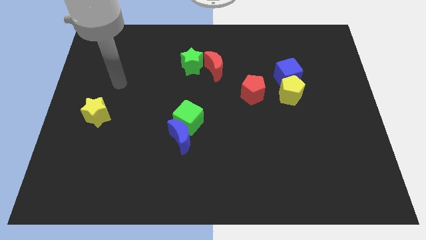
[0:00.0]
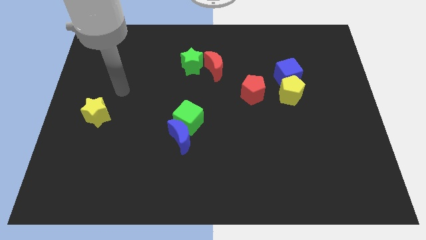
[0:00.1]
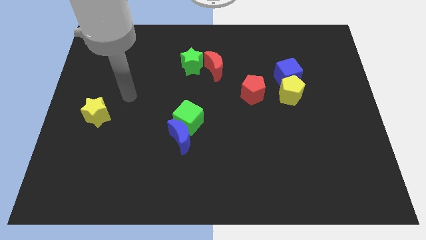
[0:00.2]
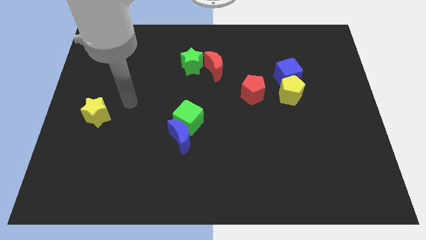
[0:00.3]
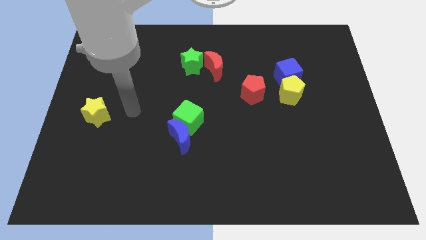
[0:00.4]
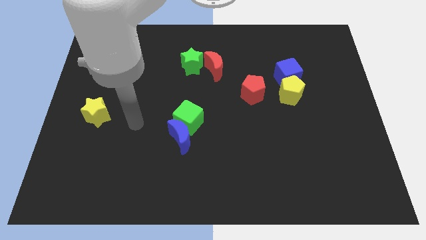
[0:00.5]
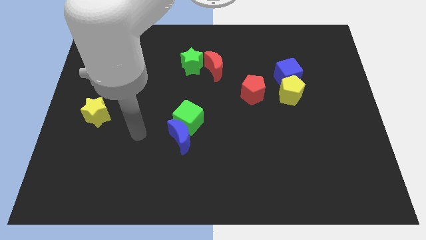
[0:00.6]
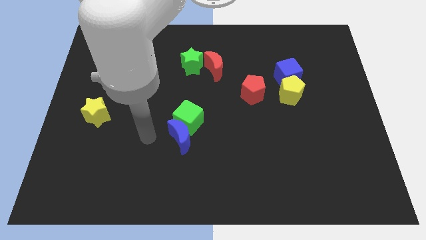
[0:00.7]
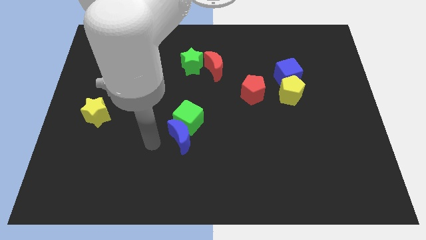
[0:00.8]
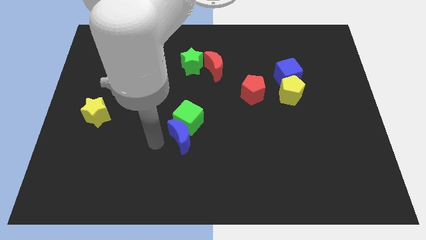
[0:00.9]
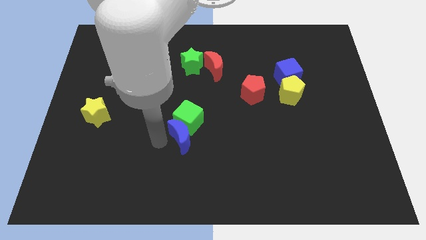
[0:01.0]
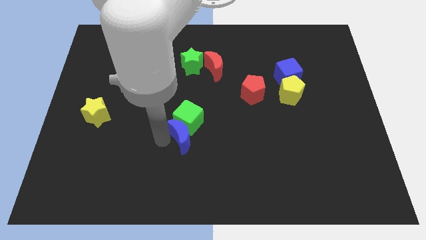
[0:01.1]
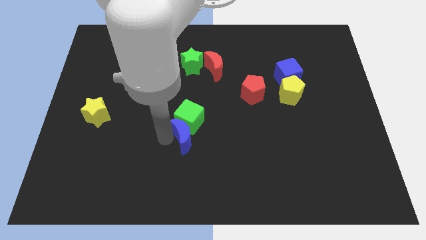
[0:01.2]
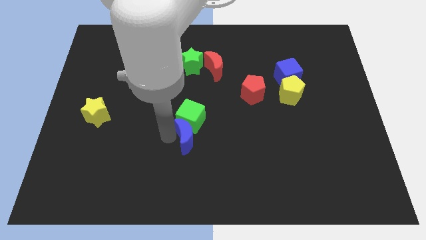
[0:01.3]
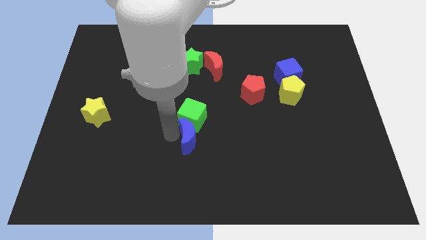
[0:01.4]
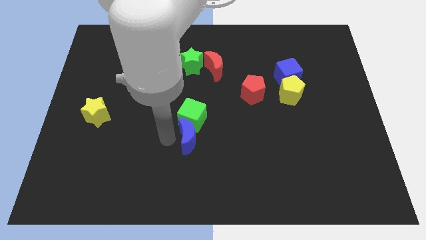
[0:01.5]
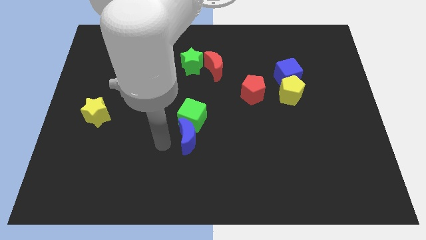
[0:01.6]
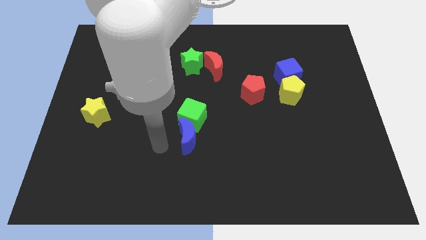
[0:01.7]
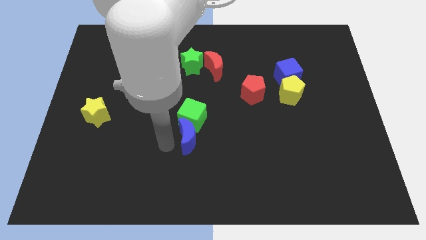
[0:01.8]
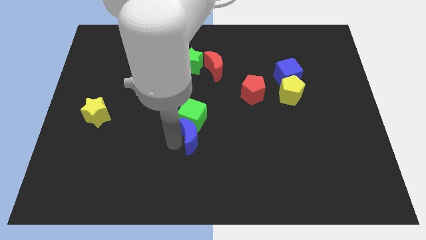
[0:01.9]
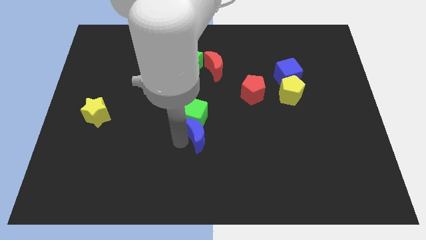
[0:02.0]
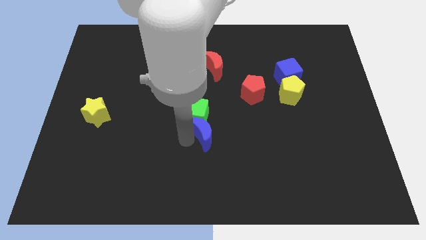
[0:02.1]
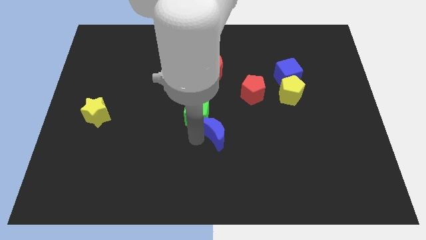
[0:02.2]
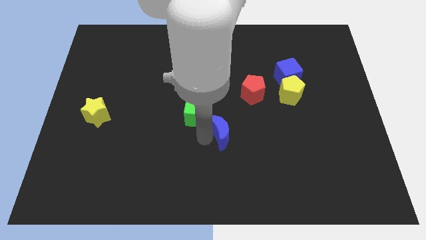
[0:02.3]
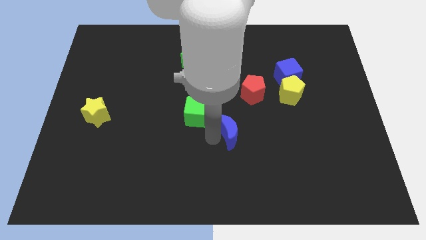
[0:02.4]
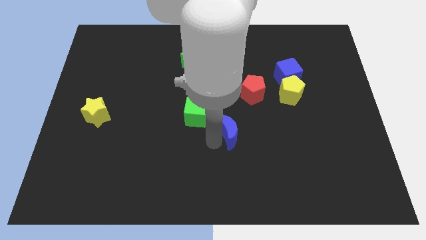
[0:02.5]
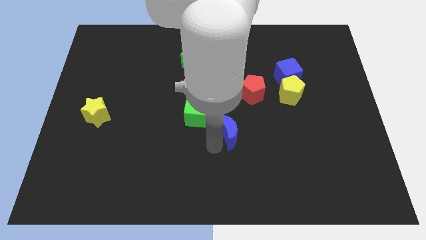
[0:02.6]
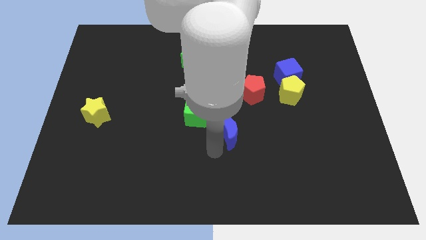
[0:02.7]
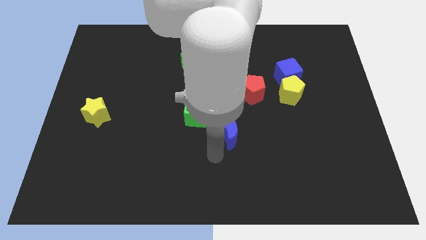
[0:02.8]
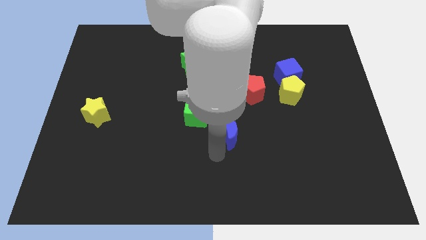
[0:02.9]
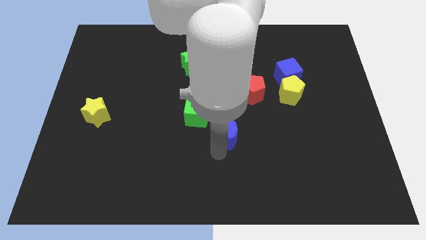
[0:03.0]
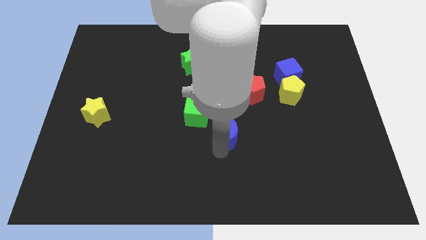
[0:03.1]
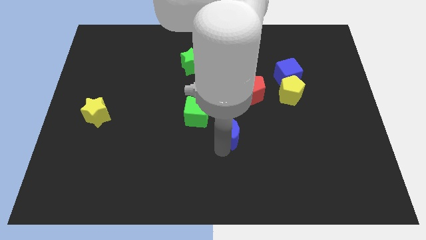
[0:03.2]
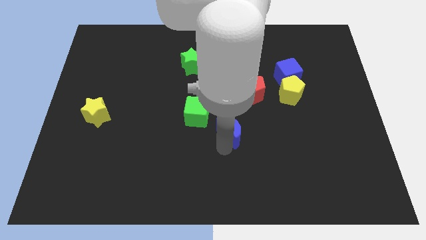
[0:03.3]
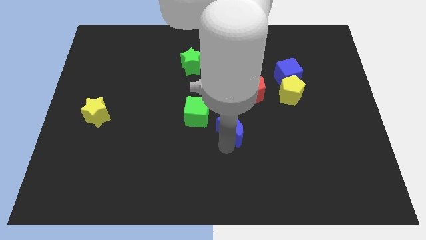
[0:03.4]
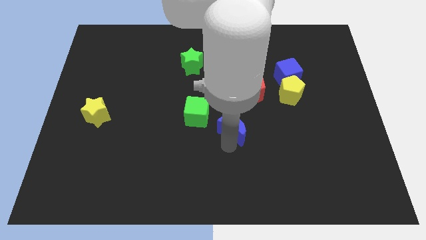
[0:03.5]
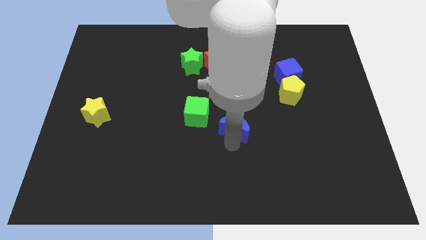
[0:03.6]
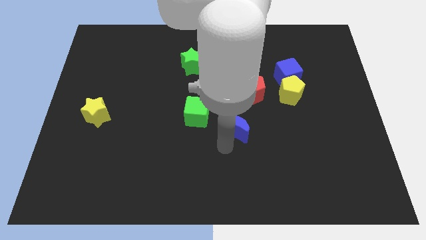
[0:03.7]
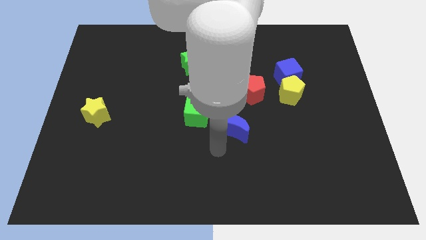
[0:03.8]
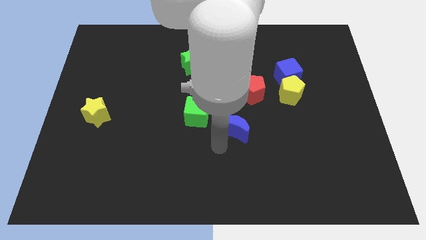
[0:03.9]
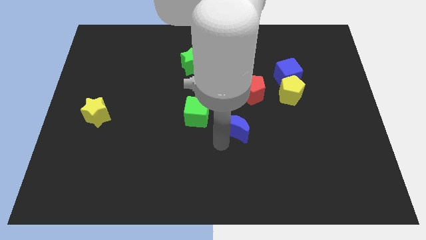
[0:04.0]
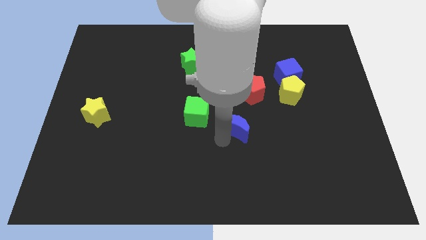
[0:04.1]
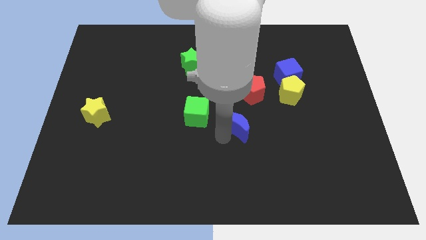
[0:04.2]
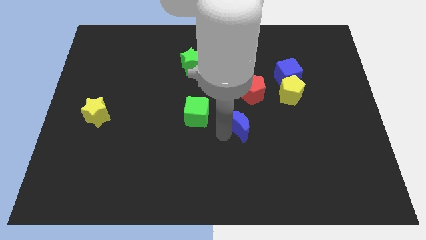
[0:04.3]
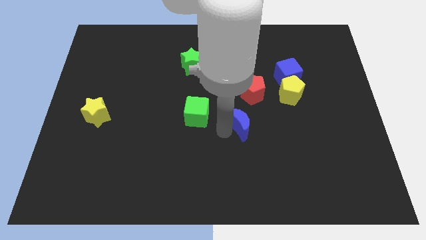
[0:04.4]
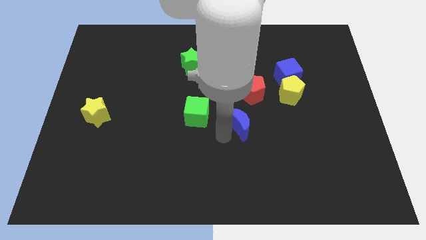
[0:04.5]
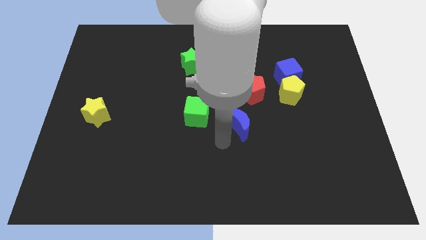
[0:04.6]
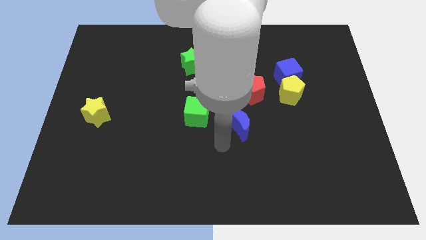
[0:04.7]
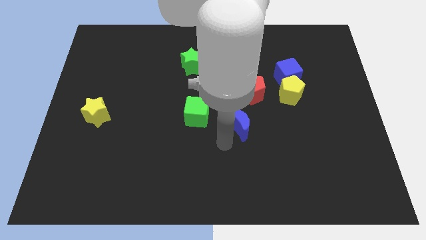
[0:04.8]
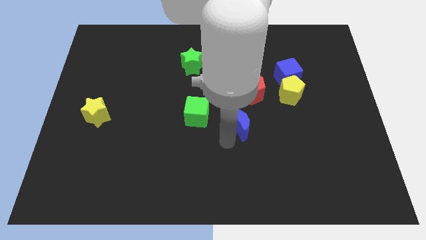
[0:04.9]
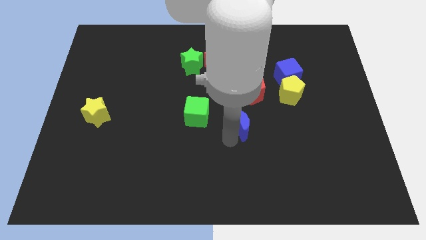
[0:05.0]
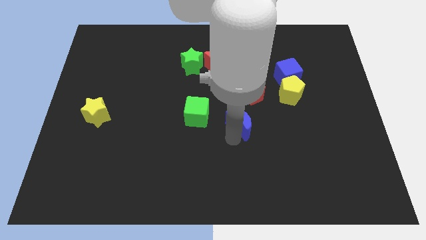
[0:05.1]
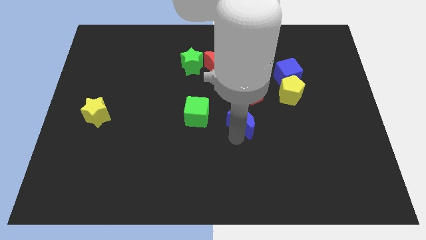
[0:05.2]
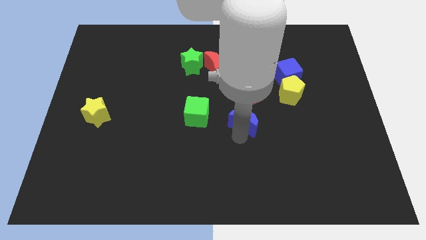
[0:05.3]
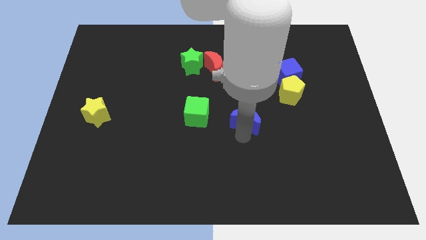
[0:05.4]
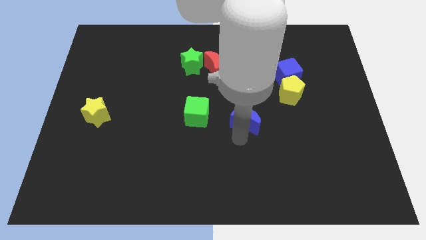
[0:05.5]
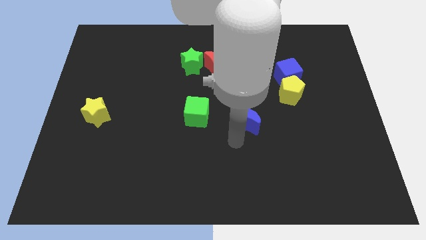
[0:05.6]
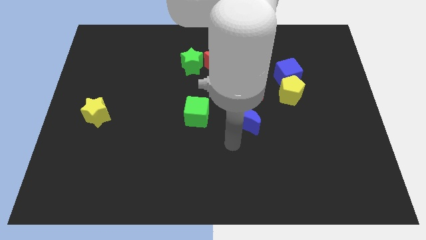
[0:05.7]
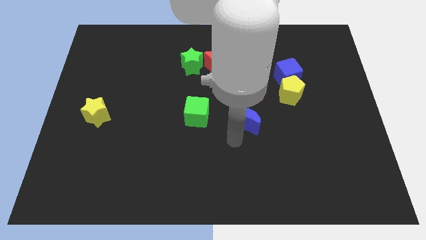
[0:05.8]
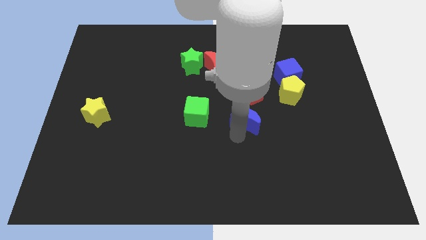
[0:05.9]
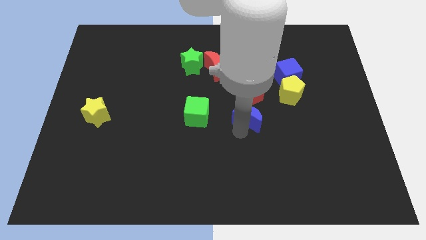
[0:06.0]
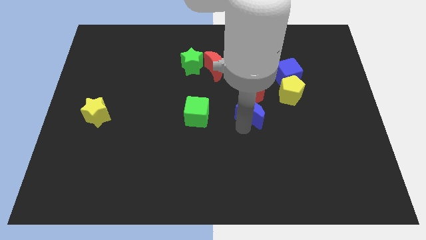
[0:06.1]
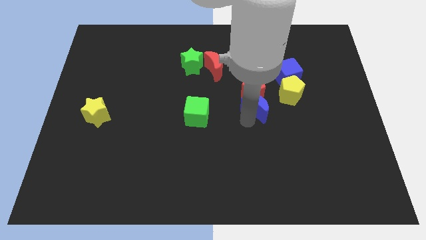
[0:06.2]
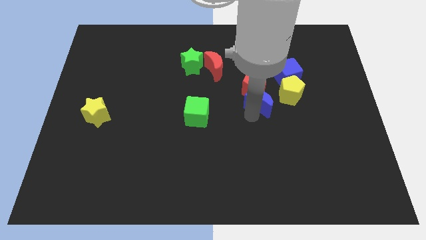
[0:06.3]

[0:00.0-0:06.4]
push the blue moon diagonally down and to the left of the blue cube

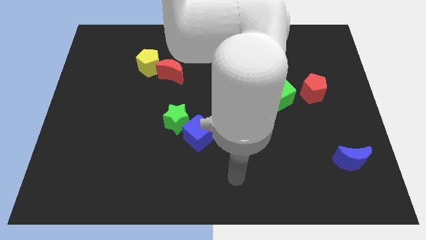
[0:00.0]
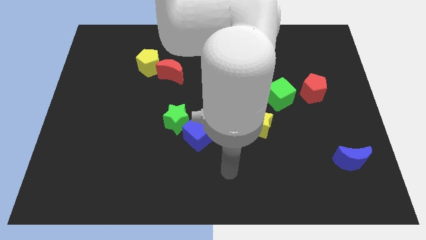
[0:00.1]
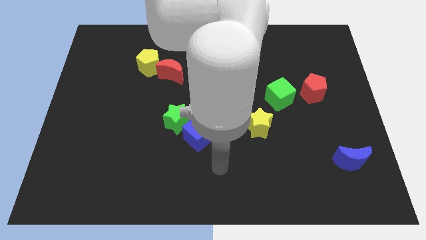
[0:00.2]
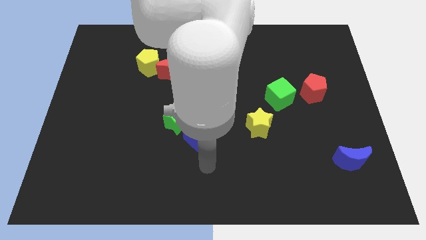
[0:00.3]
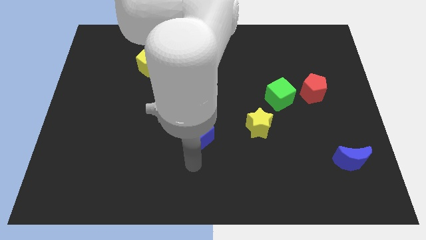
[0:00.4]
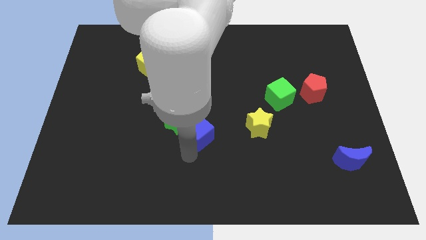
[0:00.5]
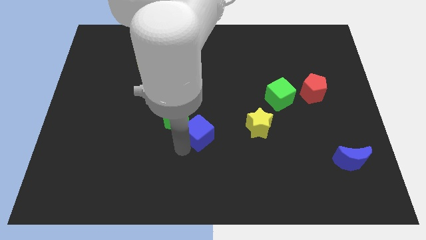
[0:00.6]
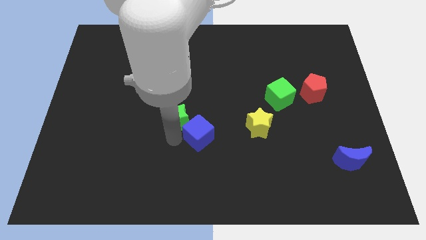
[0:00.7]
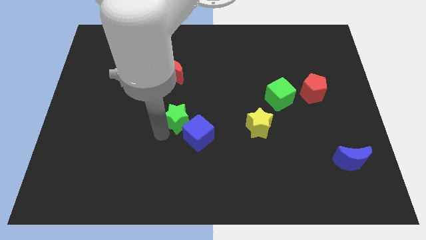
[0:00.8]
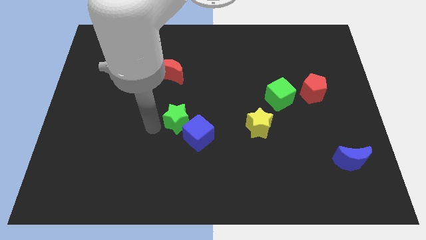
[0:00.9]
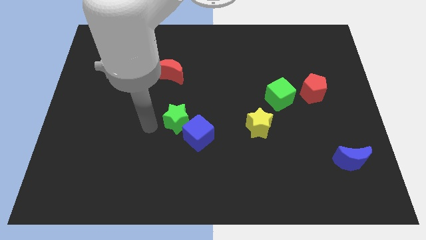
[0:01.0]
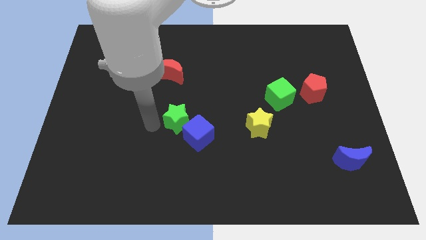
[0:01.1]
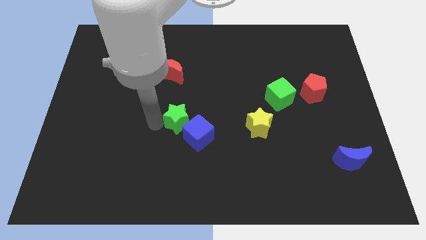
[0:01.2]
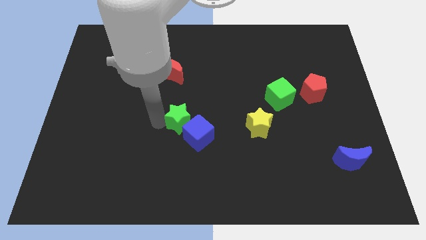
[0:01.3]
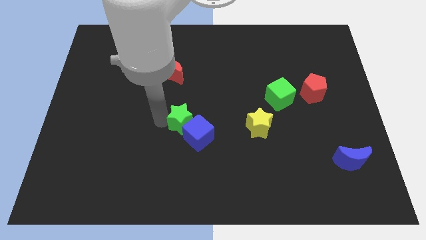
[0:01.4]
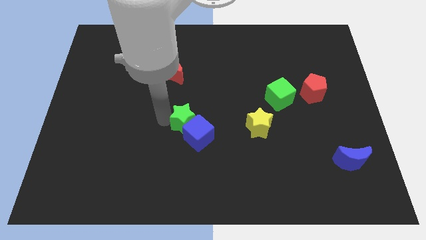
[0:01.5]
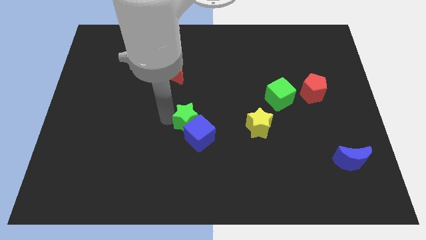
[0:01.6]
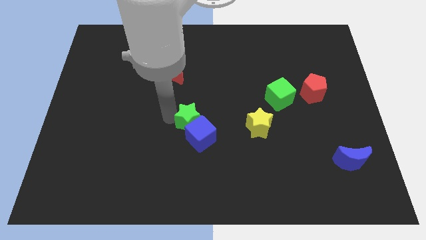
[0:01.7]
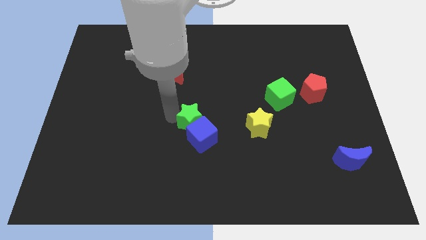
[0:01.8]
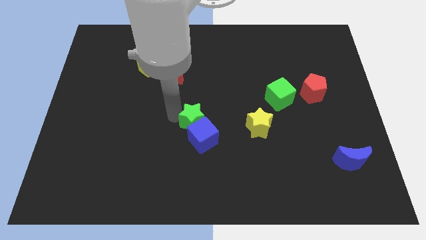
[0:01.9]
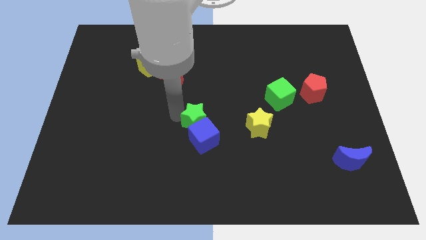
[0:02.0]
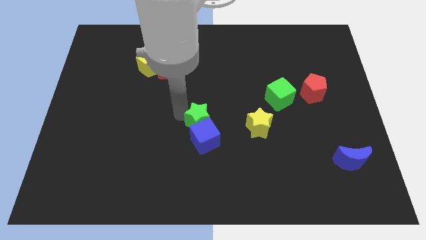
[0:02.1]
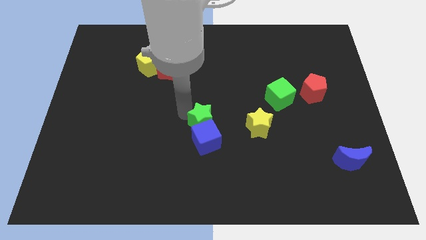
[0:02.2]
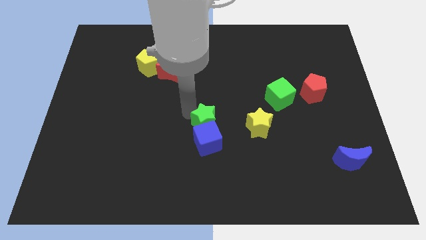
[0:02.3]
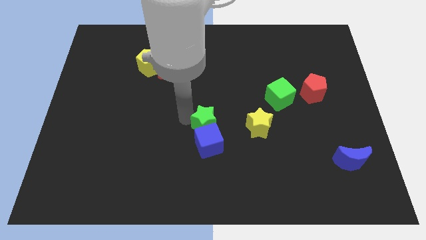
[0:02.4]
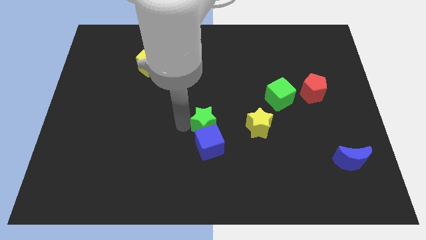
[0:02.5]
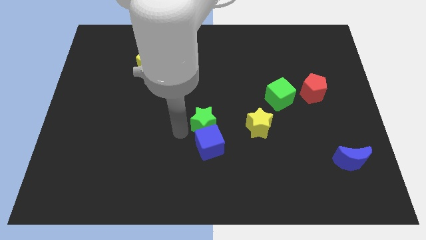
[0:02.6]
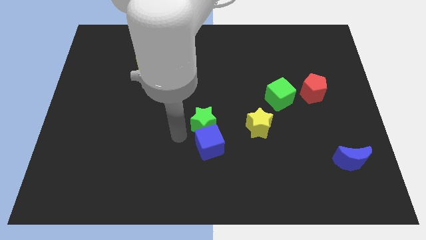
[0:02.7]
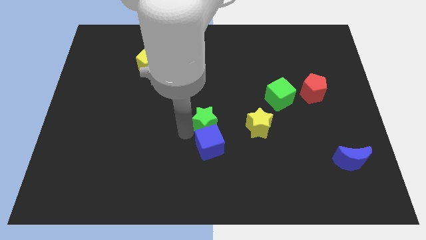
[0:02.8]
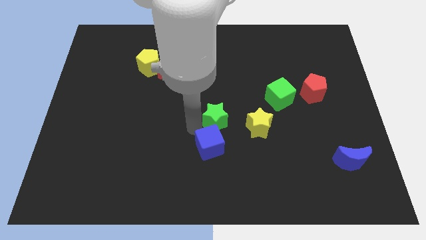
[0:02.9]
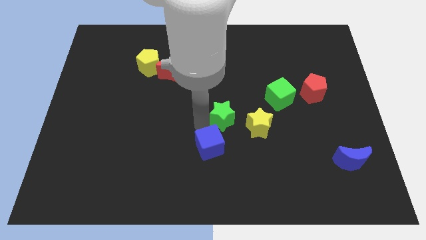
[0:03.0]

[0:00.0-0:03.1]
move the green star to the top left of the yellow star
